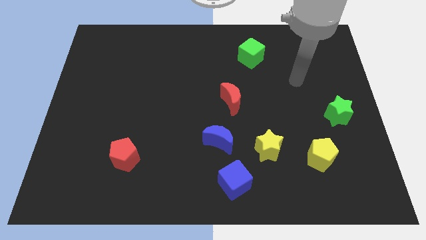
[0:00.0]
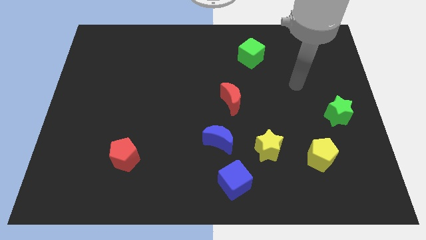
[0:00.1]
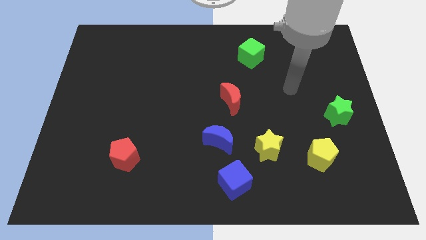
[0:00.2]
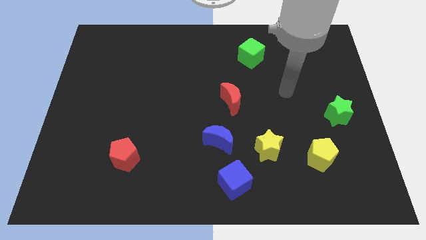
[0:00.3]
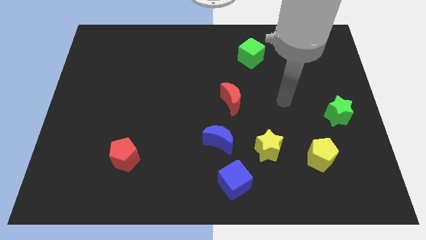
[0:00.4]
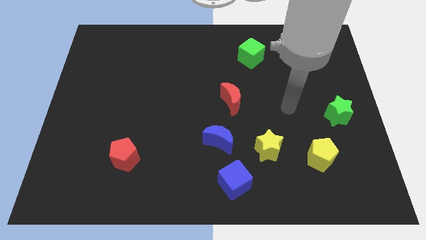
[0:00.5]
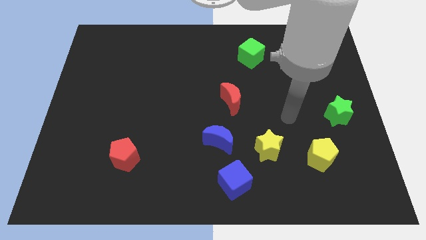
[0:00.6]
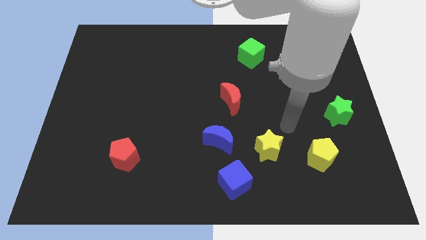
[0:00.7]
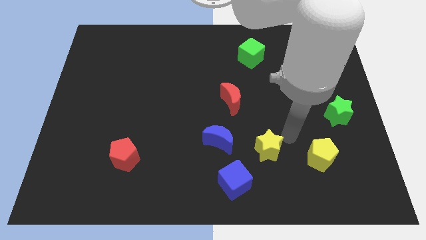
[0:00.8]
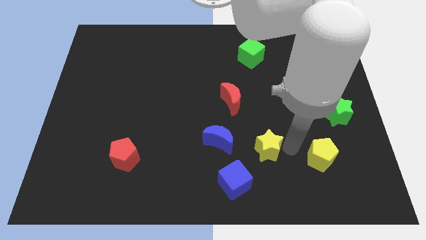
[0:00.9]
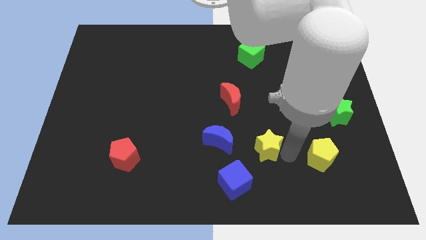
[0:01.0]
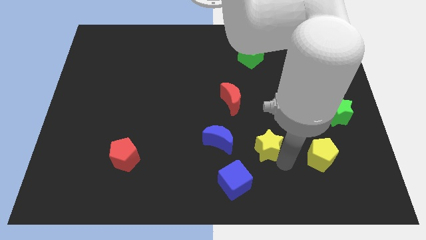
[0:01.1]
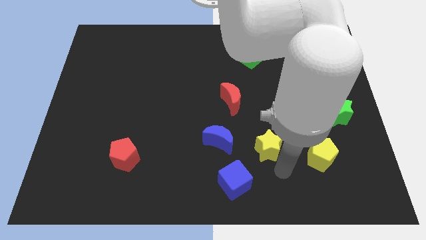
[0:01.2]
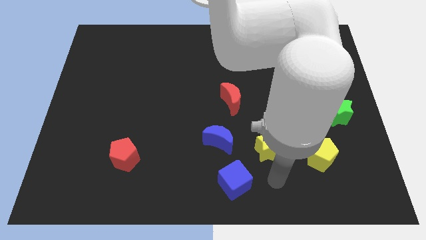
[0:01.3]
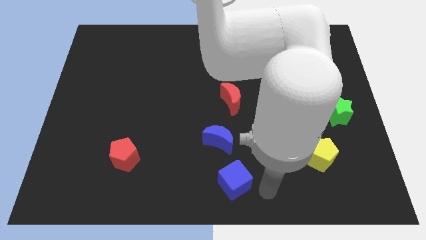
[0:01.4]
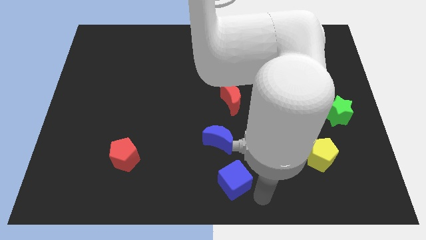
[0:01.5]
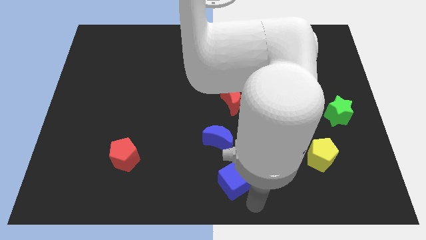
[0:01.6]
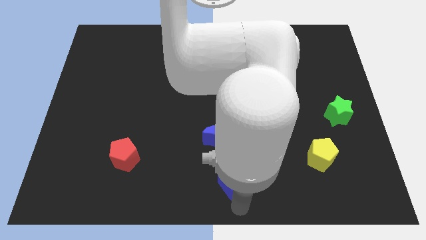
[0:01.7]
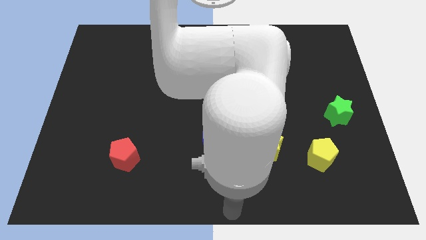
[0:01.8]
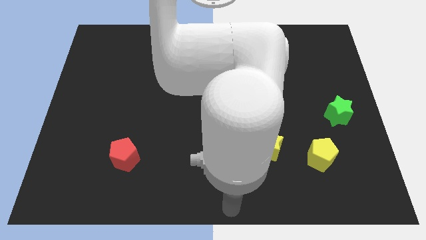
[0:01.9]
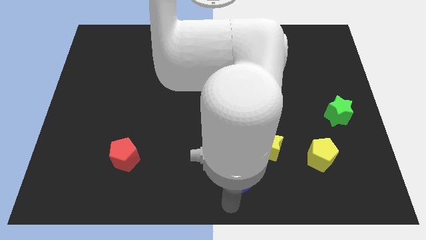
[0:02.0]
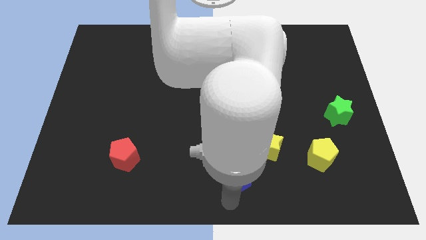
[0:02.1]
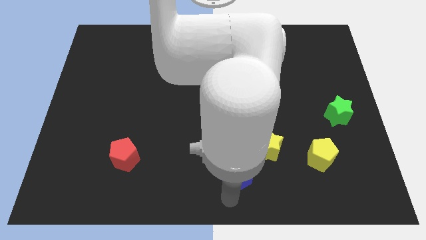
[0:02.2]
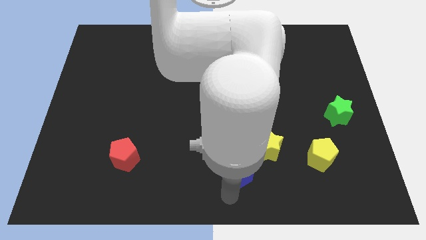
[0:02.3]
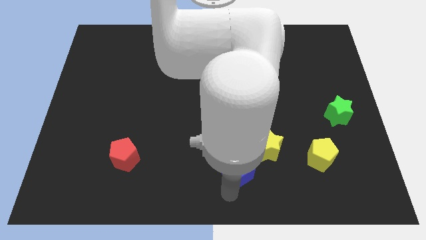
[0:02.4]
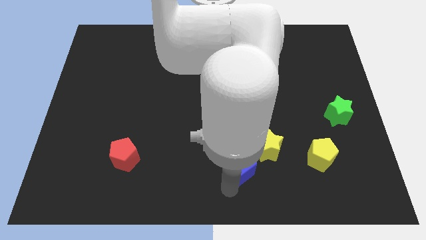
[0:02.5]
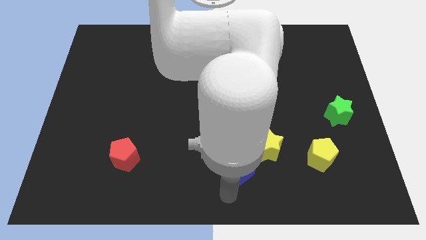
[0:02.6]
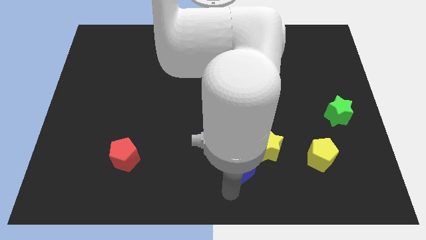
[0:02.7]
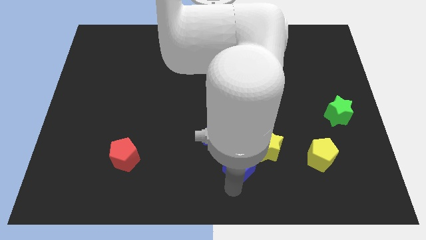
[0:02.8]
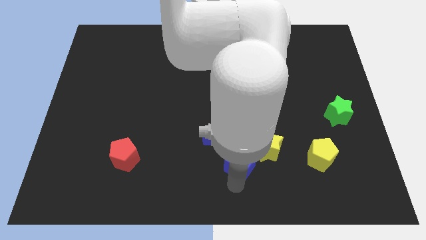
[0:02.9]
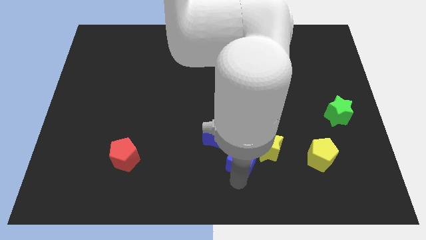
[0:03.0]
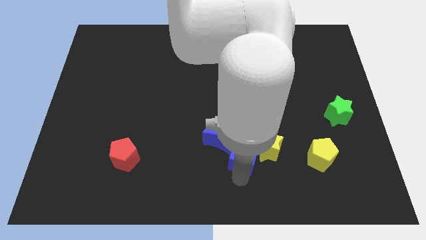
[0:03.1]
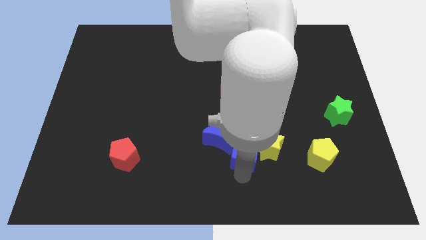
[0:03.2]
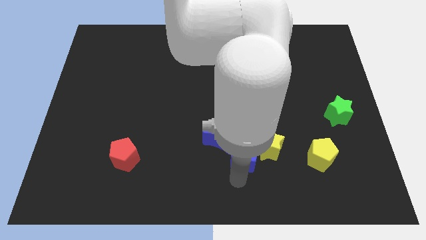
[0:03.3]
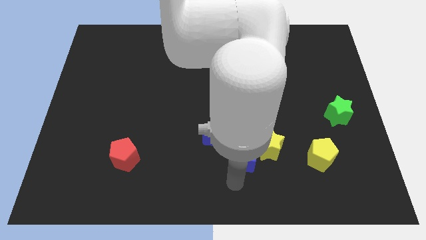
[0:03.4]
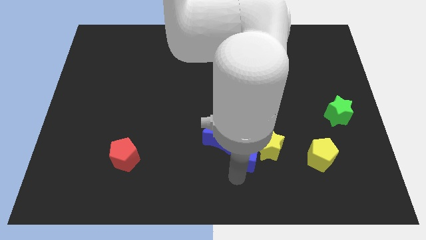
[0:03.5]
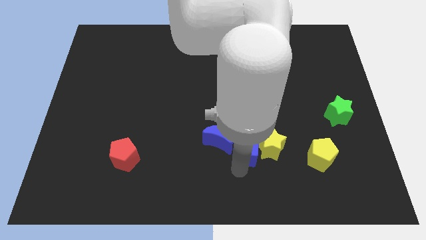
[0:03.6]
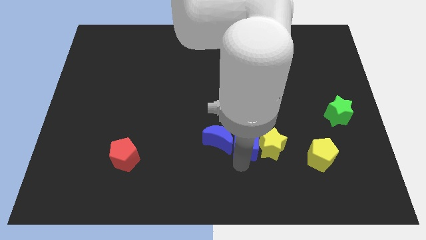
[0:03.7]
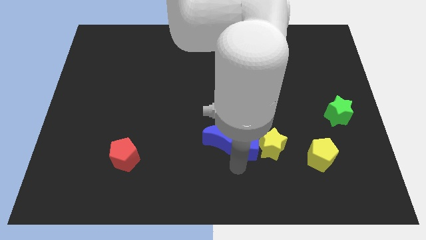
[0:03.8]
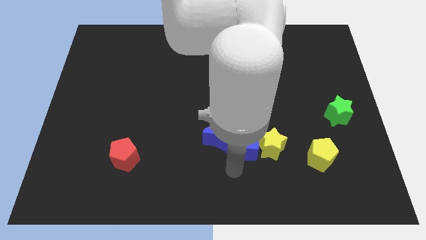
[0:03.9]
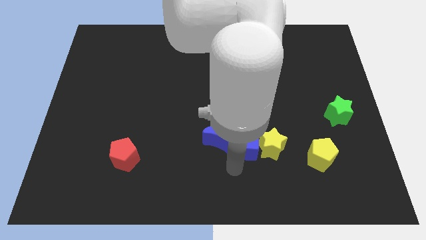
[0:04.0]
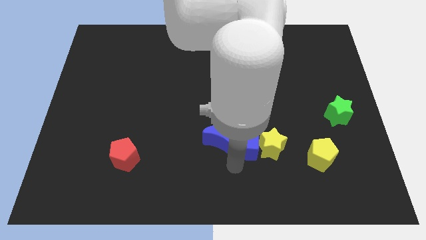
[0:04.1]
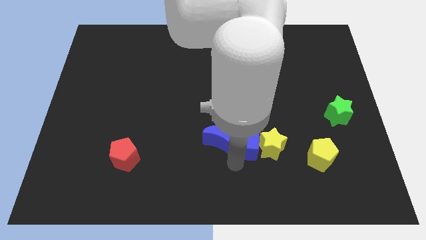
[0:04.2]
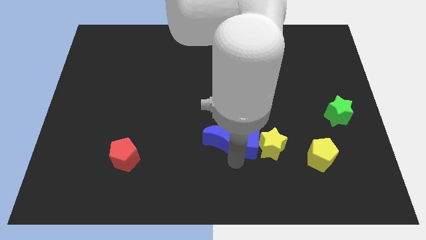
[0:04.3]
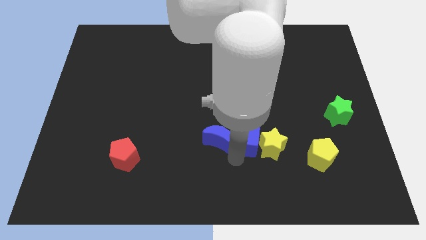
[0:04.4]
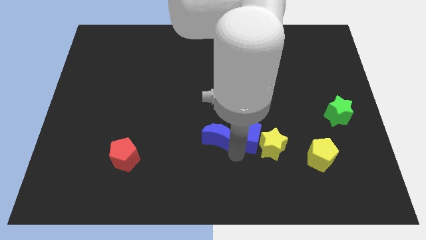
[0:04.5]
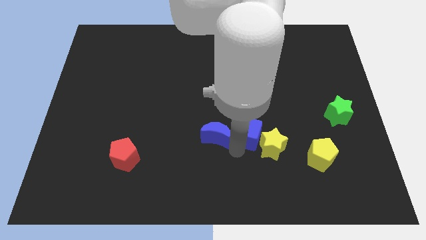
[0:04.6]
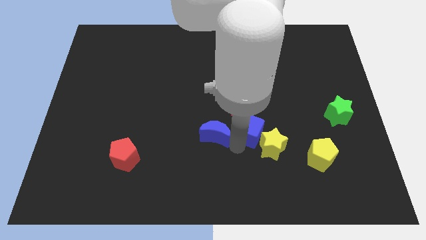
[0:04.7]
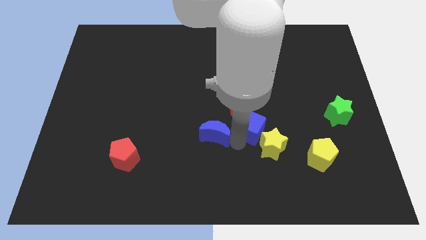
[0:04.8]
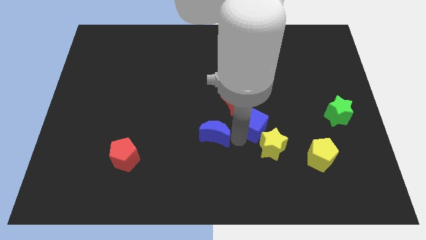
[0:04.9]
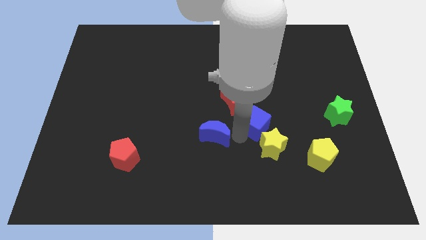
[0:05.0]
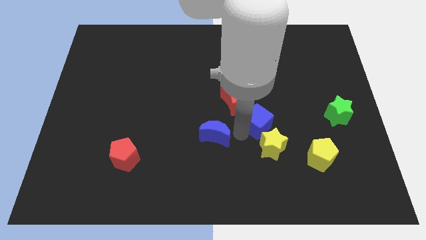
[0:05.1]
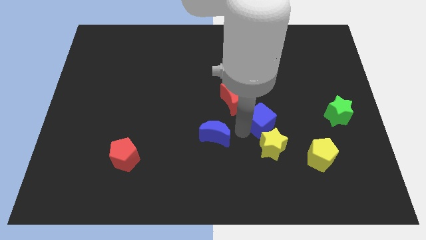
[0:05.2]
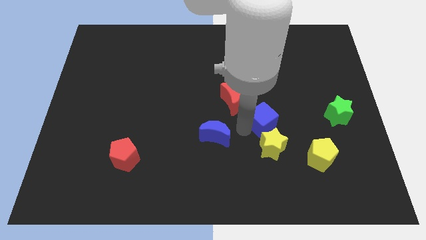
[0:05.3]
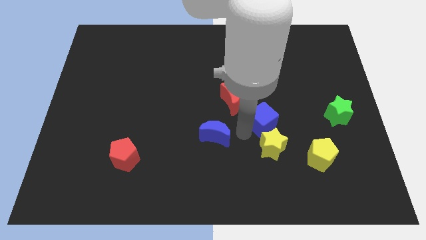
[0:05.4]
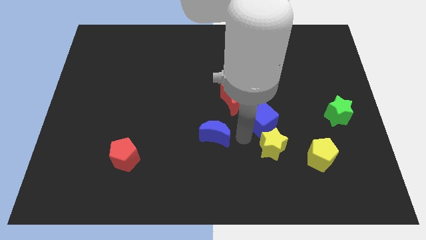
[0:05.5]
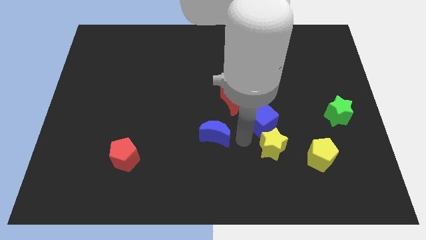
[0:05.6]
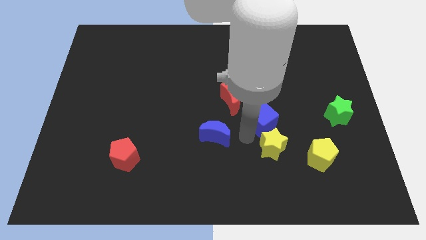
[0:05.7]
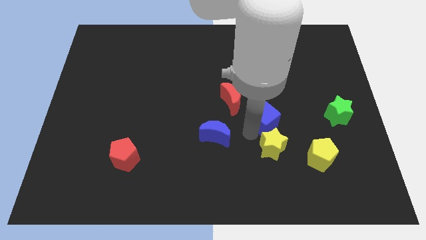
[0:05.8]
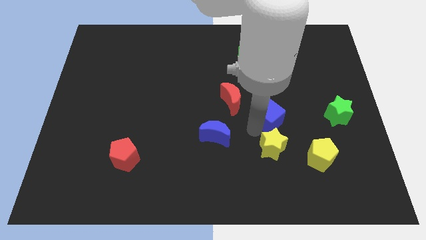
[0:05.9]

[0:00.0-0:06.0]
slide the blue cube to the left of the green star

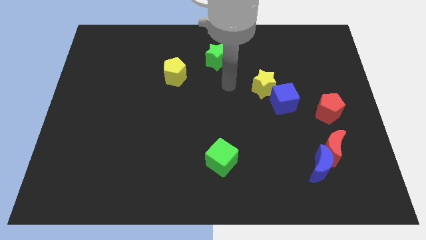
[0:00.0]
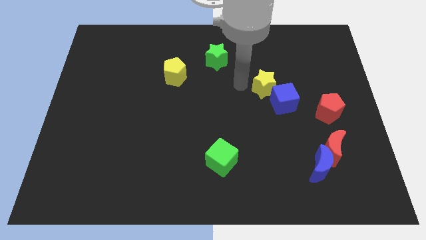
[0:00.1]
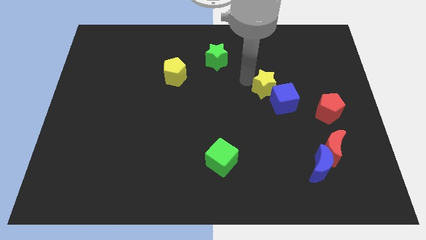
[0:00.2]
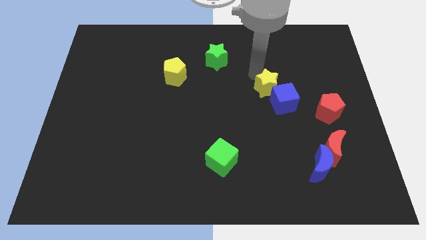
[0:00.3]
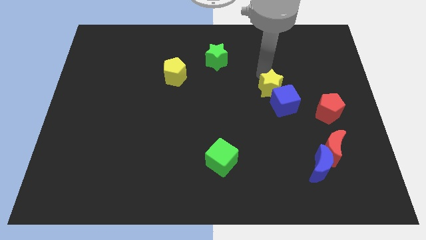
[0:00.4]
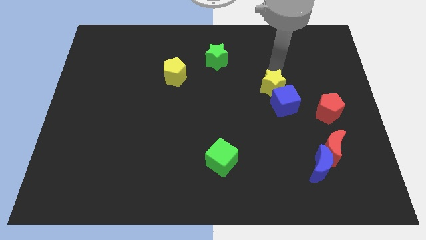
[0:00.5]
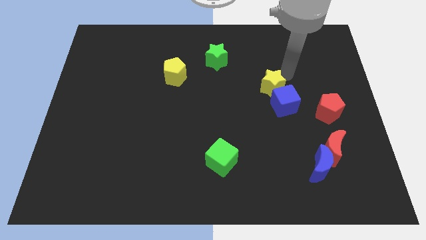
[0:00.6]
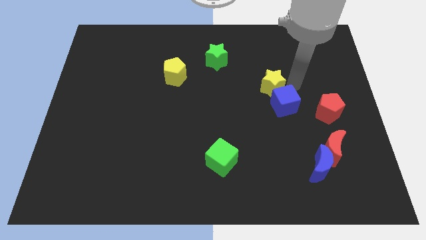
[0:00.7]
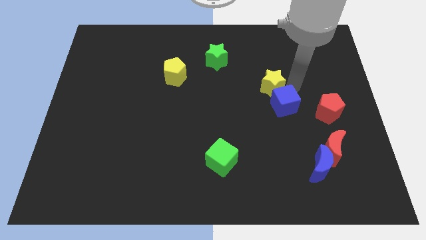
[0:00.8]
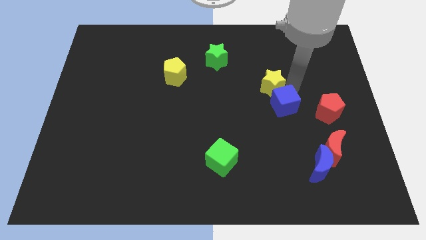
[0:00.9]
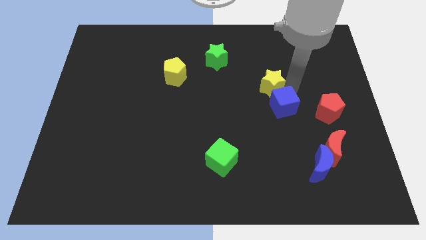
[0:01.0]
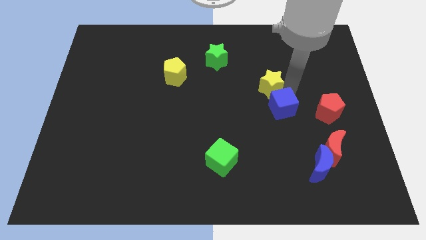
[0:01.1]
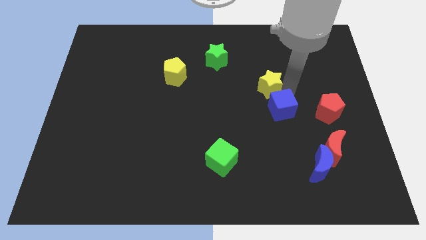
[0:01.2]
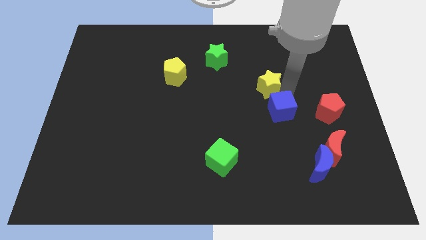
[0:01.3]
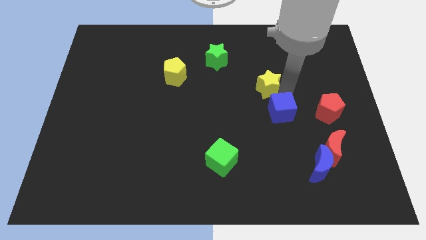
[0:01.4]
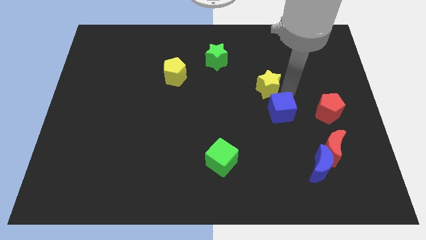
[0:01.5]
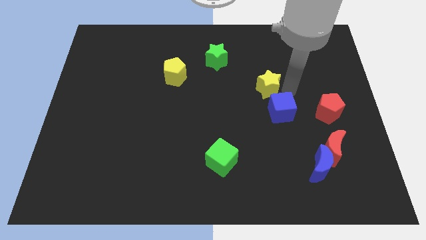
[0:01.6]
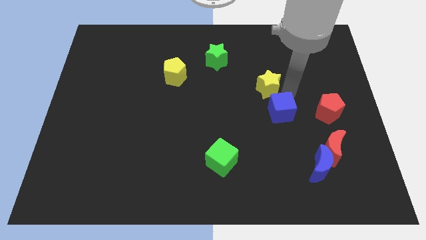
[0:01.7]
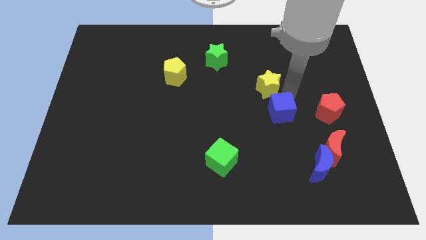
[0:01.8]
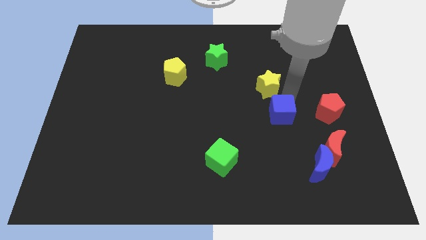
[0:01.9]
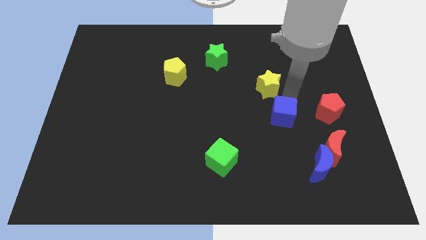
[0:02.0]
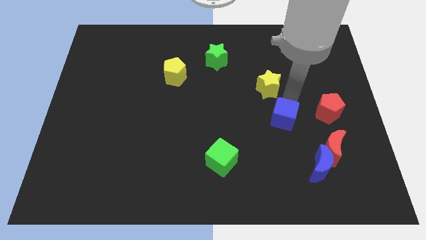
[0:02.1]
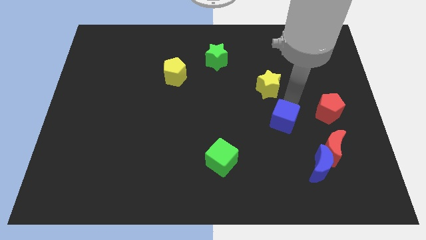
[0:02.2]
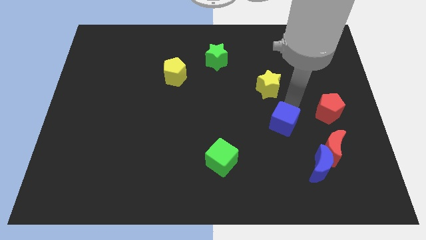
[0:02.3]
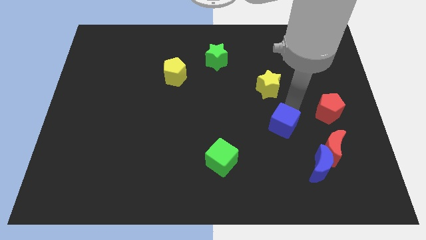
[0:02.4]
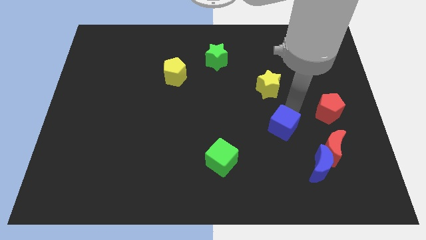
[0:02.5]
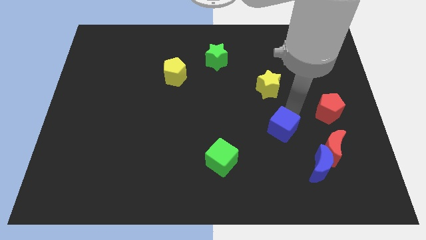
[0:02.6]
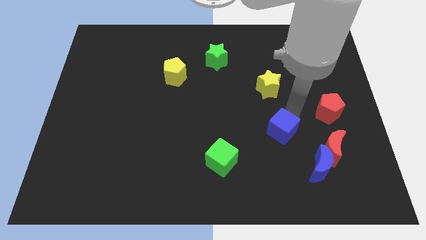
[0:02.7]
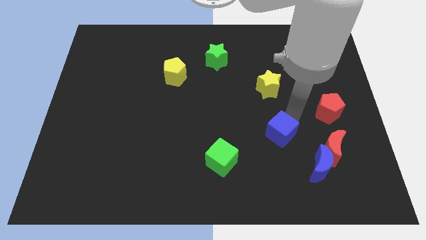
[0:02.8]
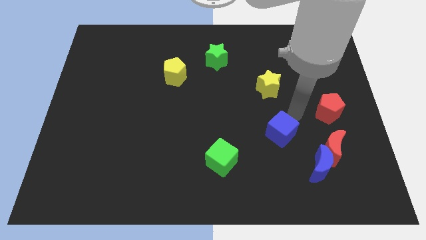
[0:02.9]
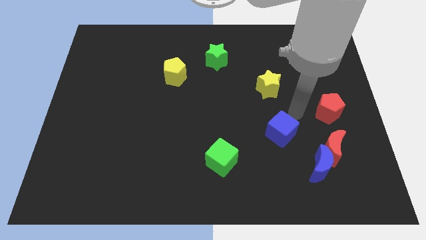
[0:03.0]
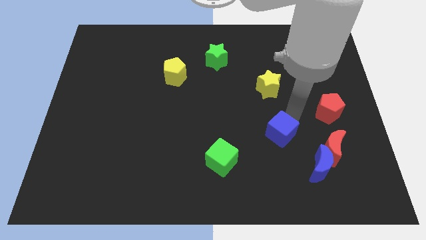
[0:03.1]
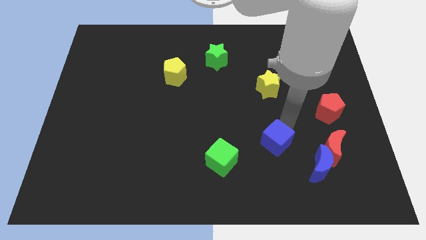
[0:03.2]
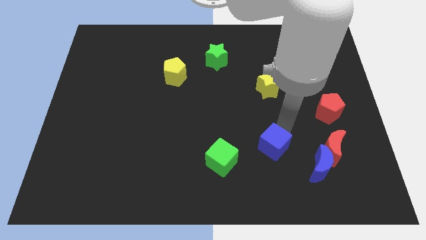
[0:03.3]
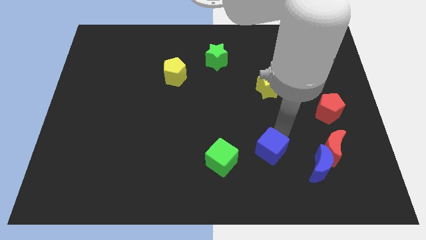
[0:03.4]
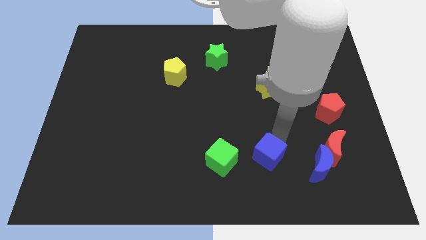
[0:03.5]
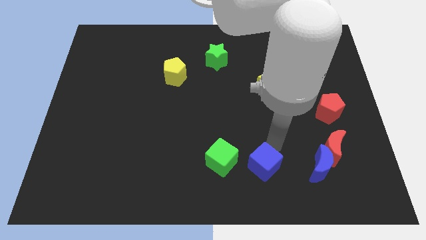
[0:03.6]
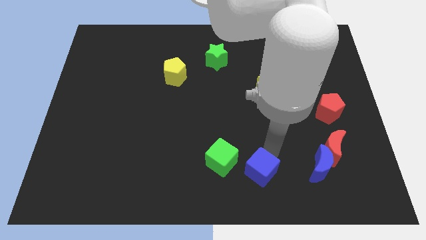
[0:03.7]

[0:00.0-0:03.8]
put the blue cube to the bottom right side of the green cube
